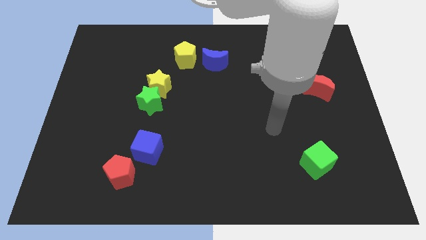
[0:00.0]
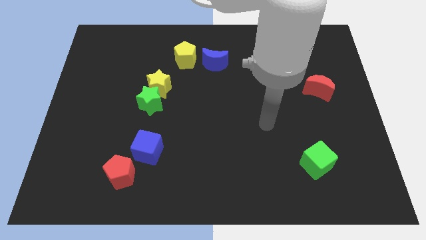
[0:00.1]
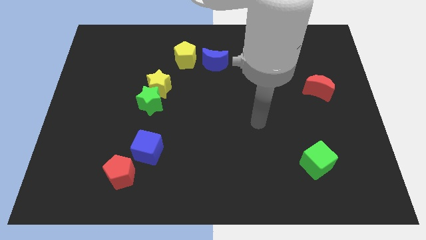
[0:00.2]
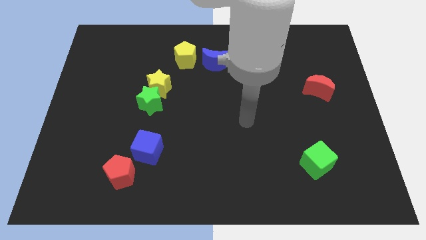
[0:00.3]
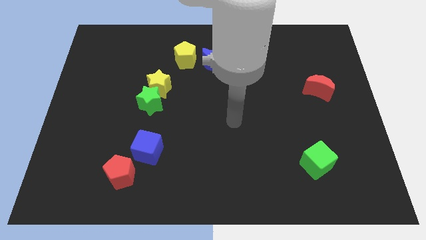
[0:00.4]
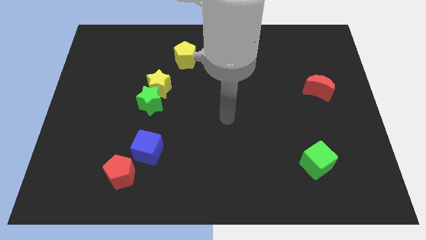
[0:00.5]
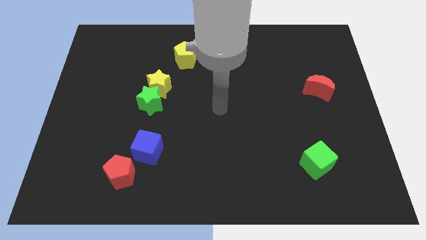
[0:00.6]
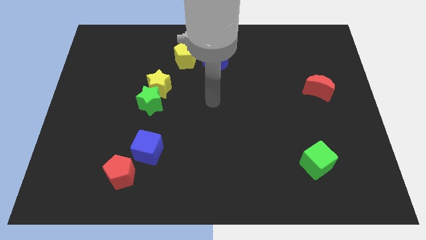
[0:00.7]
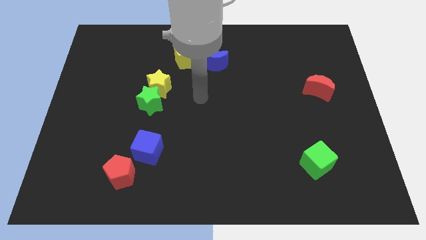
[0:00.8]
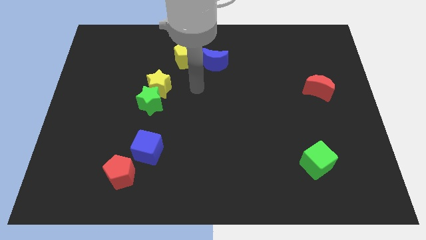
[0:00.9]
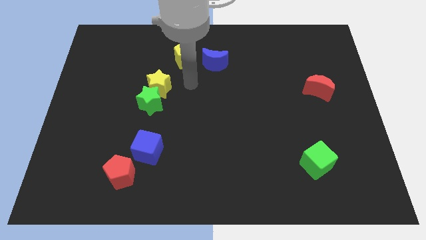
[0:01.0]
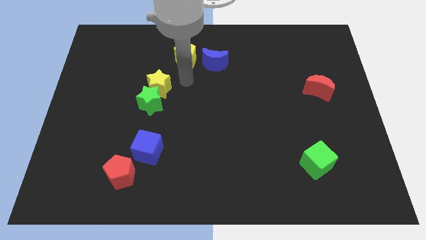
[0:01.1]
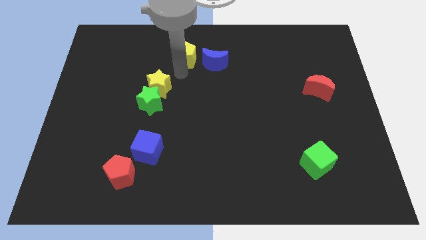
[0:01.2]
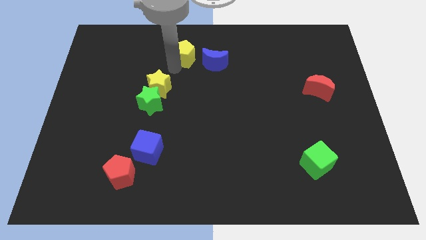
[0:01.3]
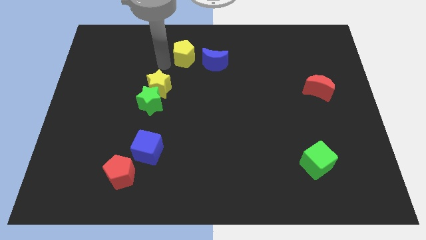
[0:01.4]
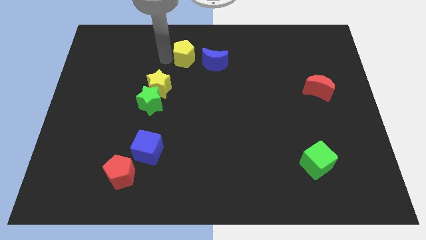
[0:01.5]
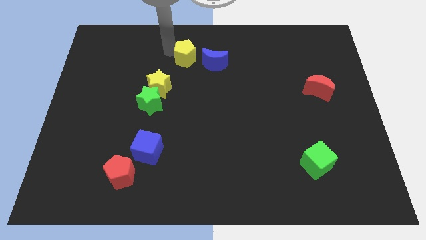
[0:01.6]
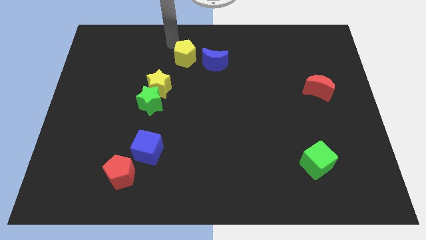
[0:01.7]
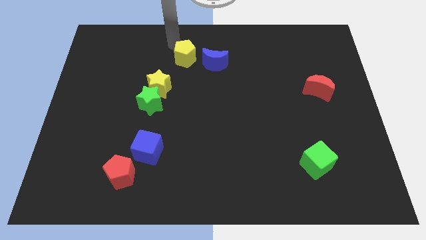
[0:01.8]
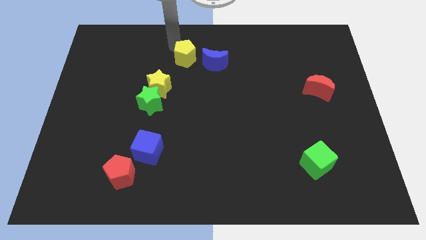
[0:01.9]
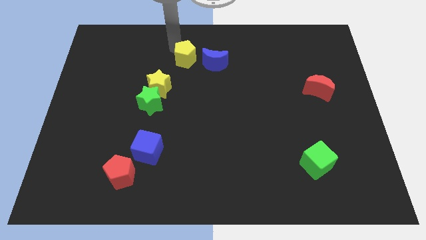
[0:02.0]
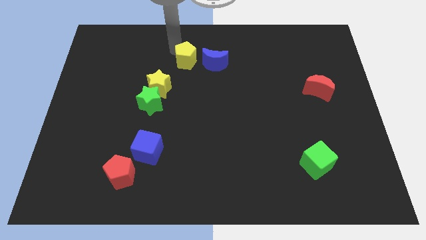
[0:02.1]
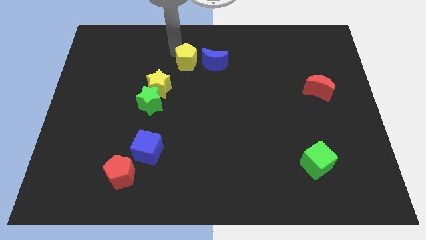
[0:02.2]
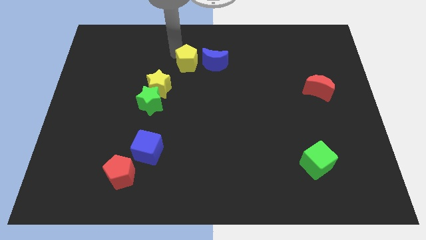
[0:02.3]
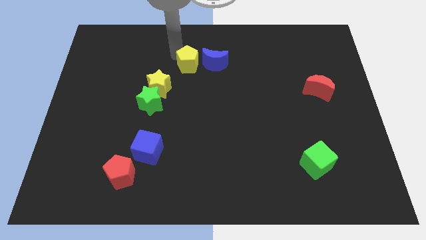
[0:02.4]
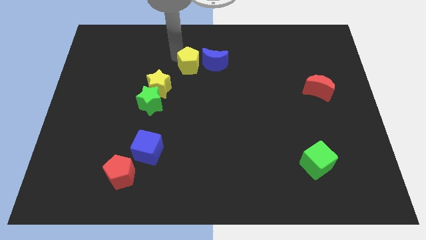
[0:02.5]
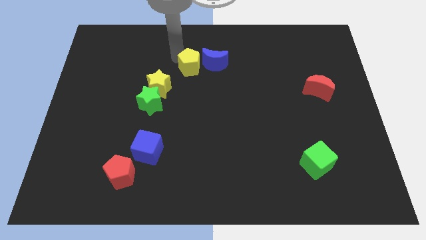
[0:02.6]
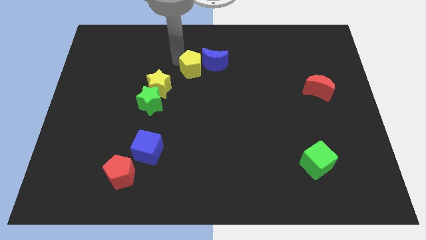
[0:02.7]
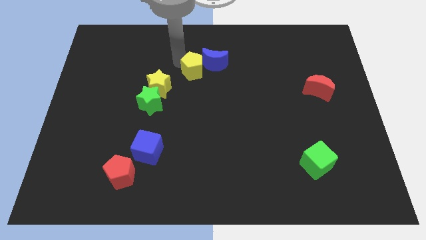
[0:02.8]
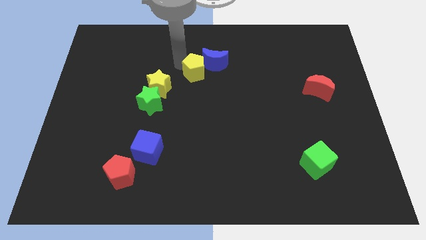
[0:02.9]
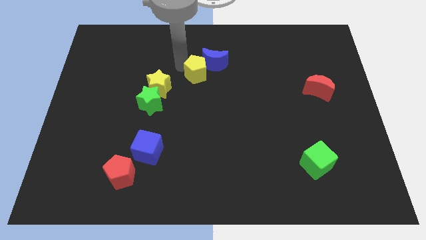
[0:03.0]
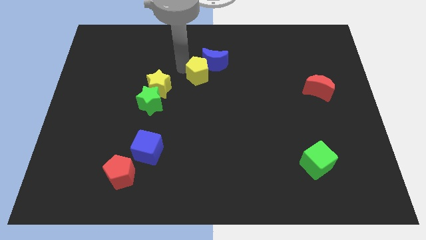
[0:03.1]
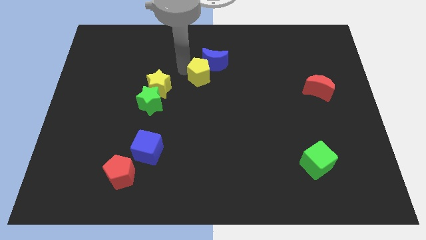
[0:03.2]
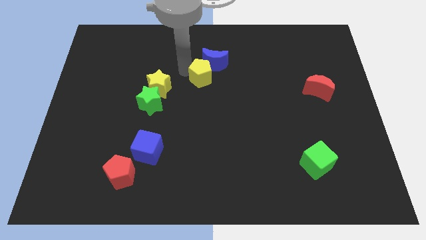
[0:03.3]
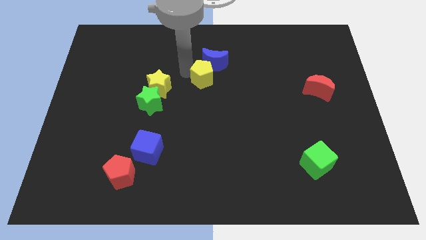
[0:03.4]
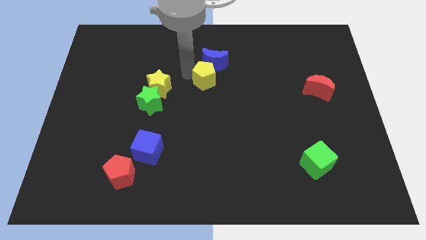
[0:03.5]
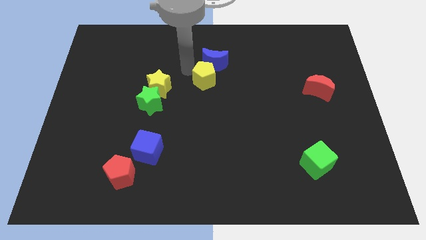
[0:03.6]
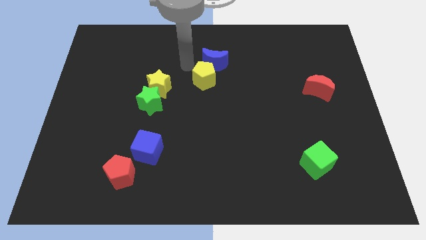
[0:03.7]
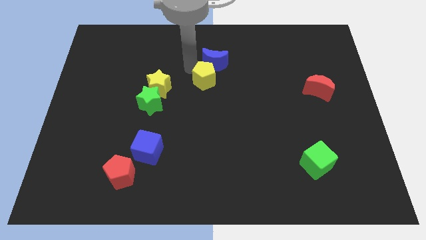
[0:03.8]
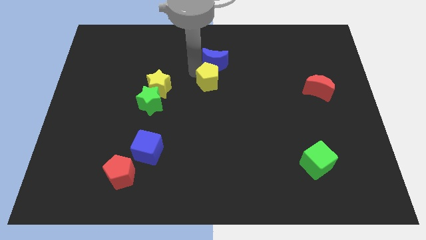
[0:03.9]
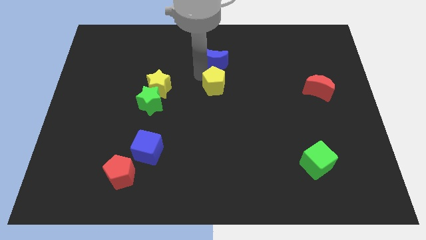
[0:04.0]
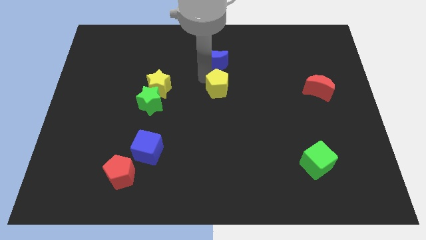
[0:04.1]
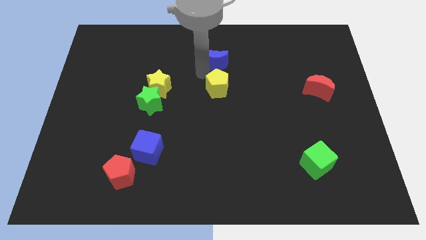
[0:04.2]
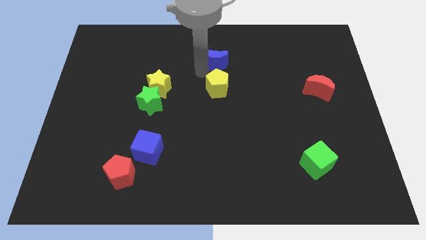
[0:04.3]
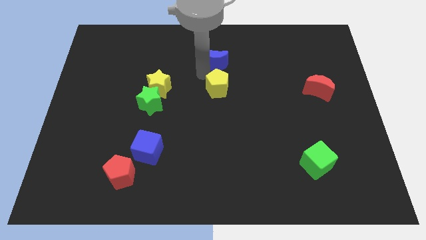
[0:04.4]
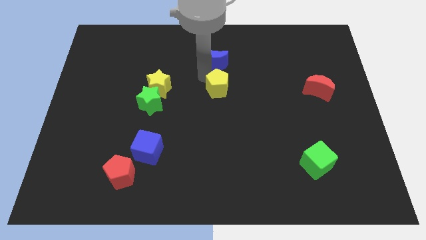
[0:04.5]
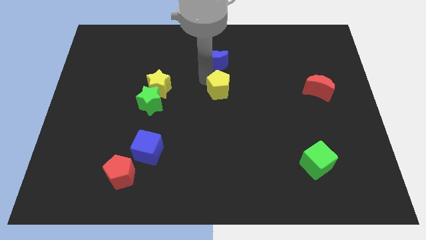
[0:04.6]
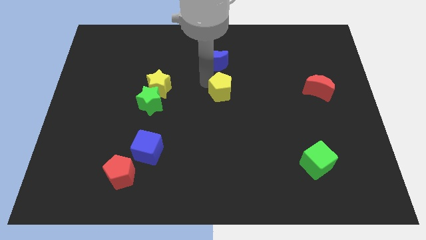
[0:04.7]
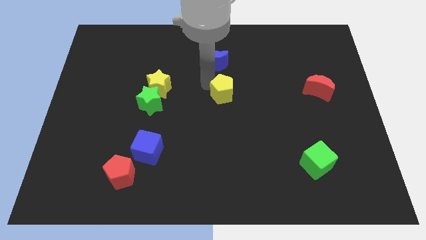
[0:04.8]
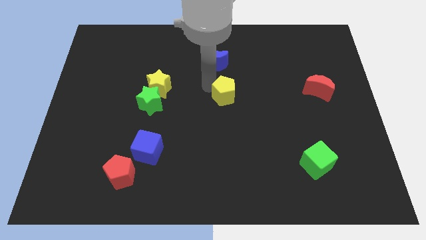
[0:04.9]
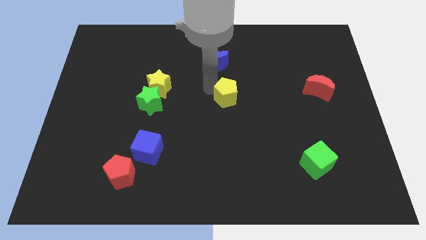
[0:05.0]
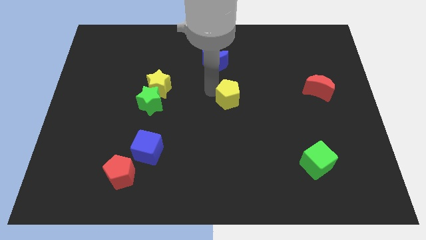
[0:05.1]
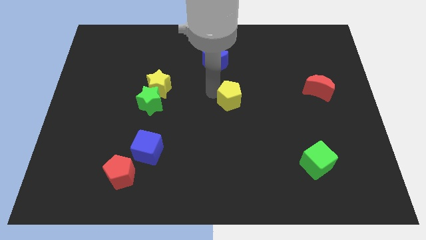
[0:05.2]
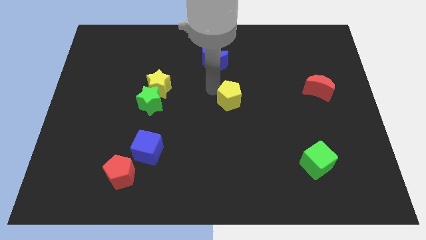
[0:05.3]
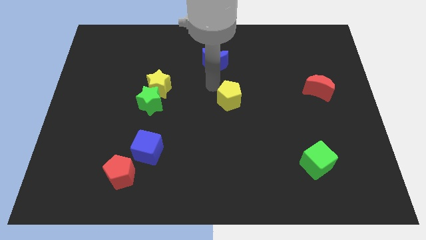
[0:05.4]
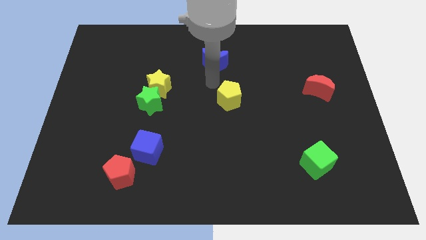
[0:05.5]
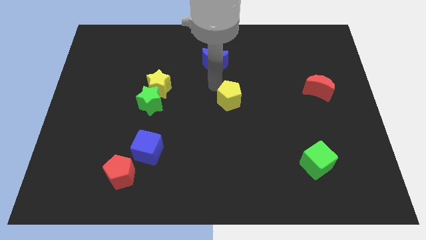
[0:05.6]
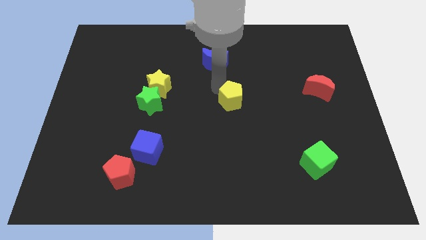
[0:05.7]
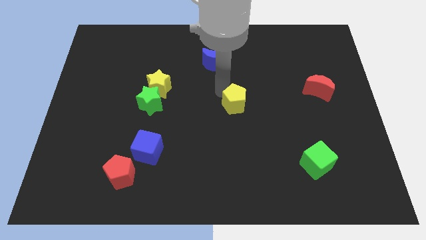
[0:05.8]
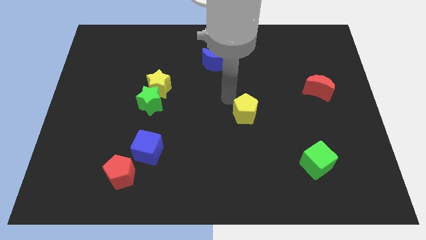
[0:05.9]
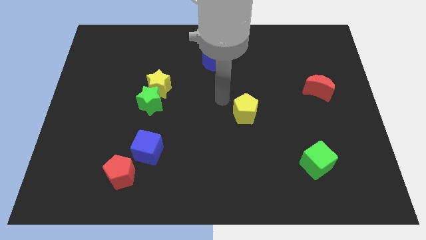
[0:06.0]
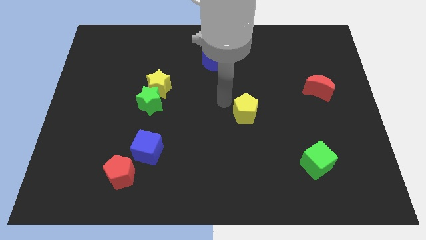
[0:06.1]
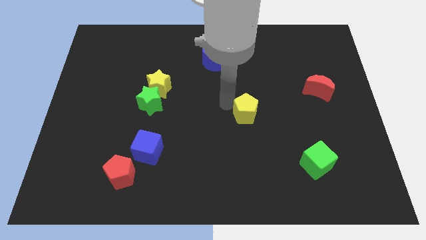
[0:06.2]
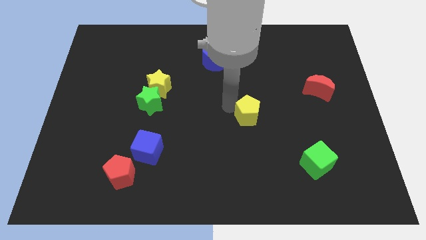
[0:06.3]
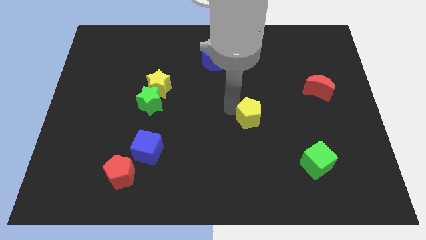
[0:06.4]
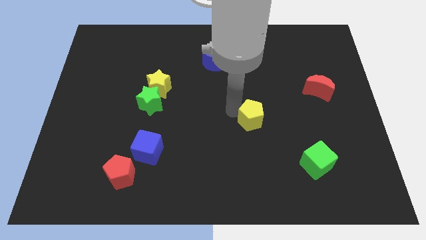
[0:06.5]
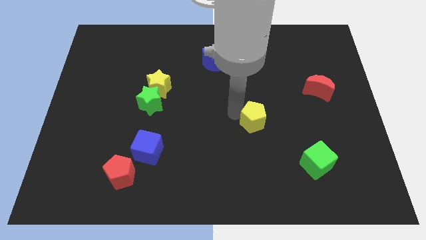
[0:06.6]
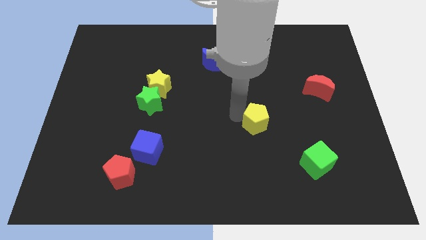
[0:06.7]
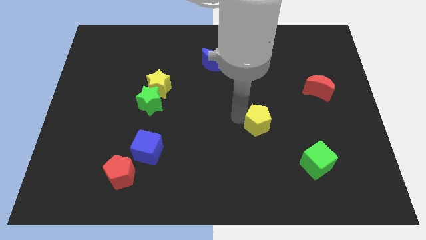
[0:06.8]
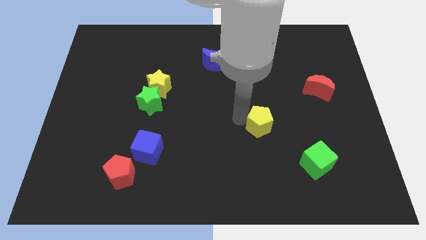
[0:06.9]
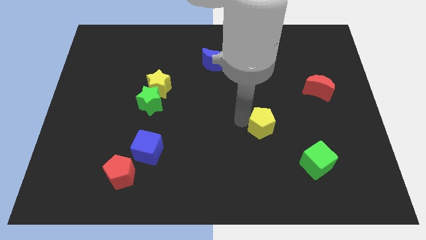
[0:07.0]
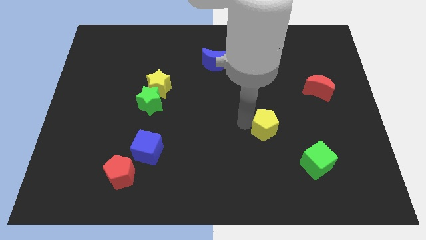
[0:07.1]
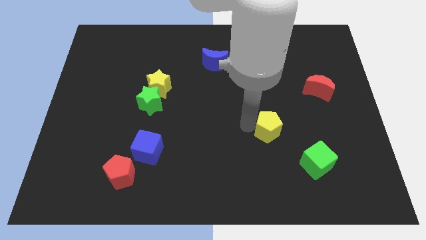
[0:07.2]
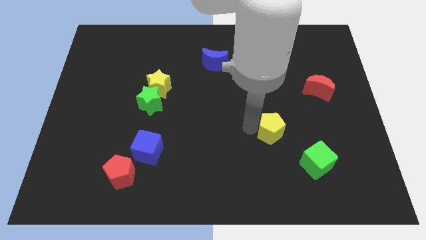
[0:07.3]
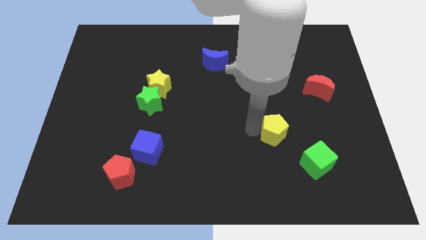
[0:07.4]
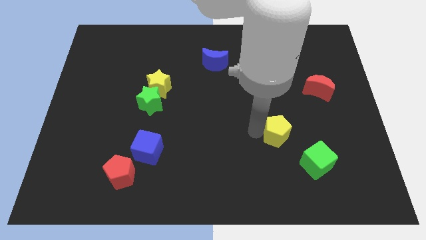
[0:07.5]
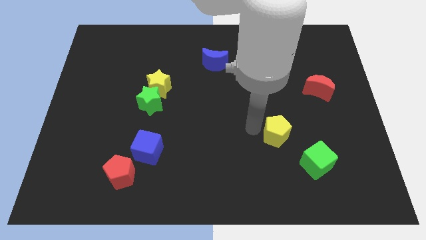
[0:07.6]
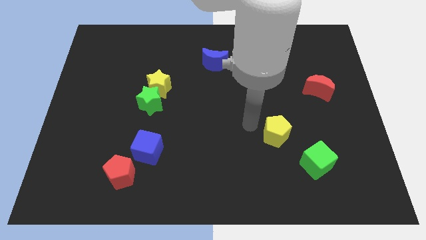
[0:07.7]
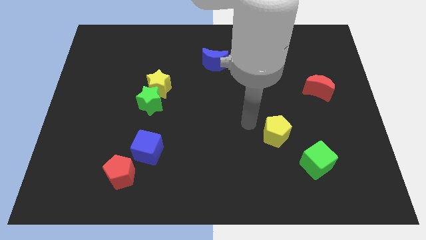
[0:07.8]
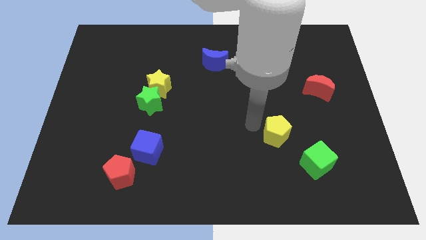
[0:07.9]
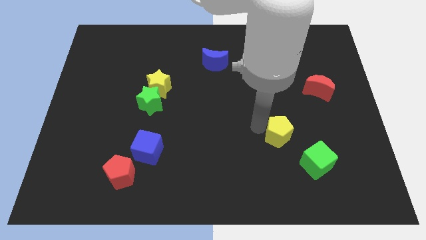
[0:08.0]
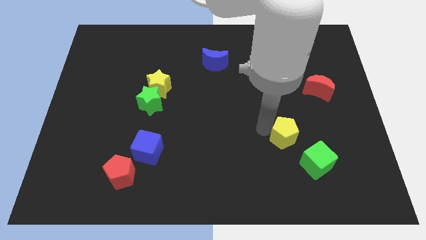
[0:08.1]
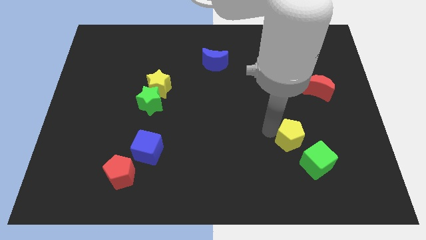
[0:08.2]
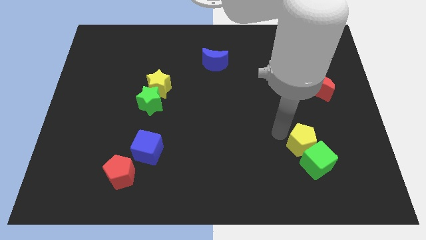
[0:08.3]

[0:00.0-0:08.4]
slide the yellow pentagon towards the green cube
